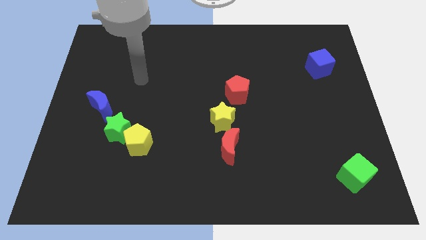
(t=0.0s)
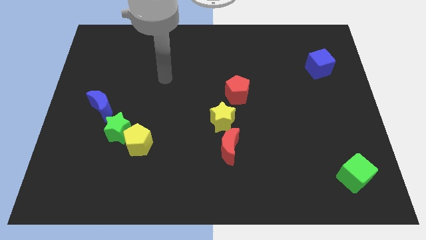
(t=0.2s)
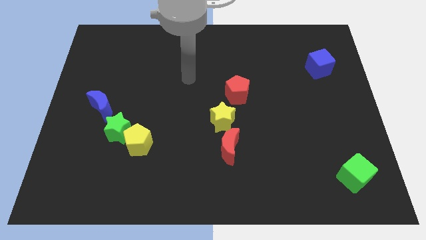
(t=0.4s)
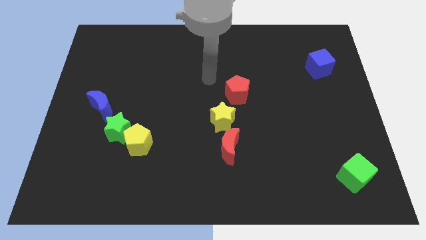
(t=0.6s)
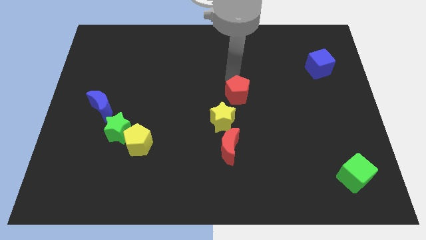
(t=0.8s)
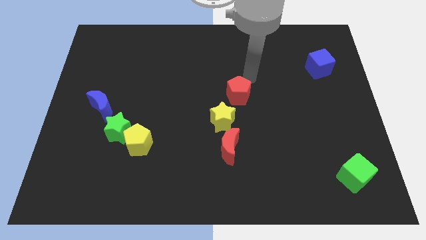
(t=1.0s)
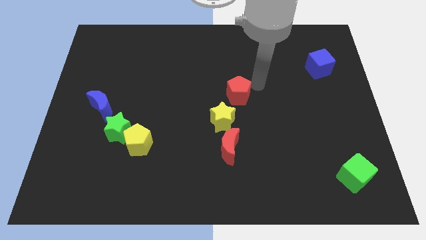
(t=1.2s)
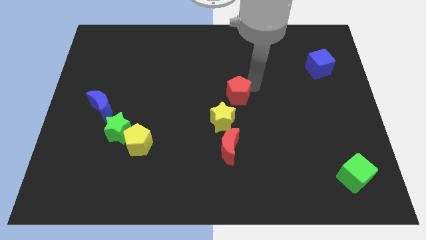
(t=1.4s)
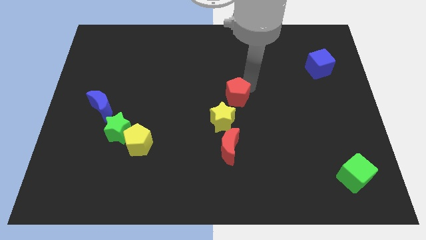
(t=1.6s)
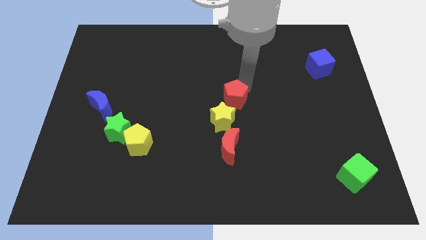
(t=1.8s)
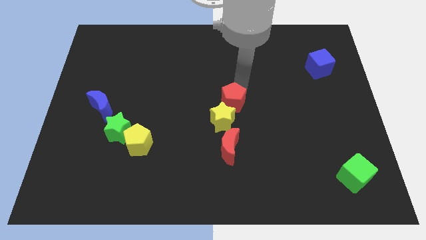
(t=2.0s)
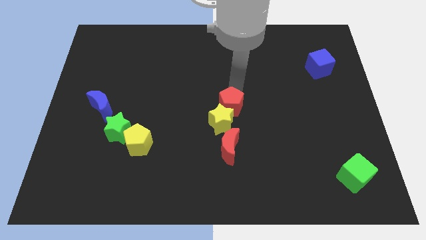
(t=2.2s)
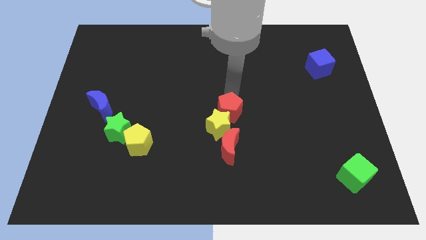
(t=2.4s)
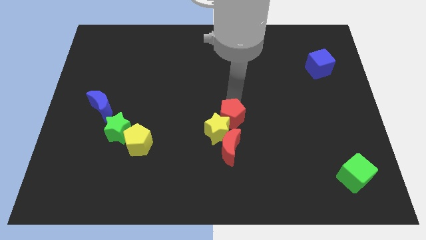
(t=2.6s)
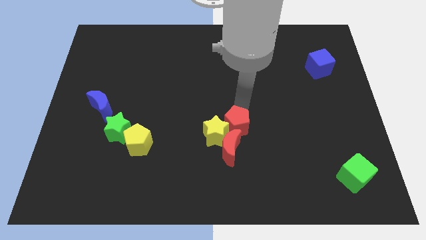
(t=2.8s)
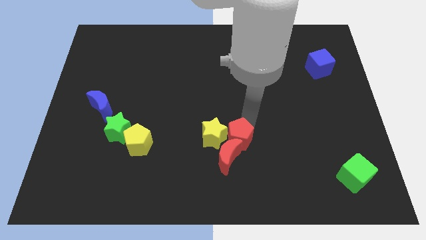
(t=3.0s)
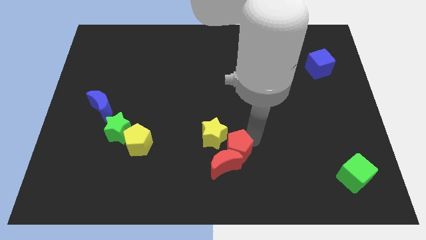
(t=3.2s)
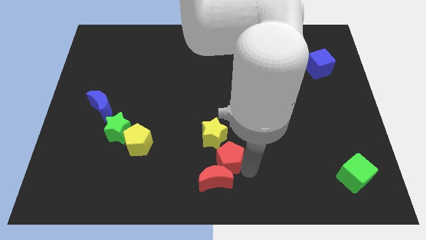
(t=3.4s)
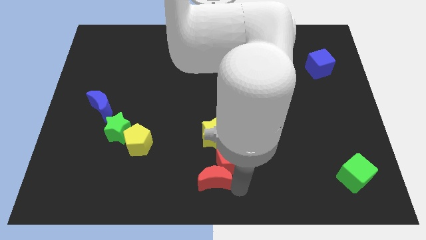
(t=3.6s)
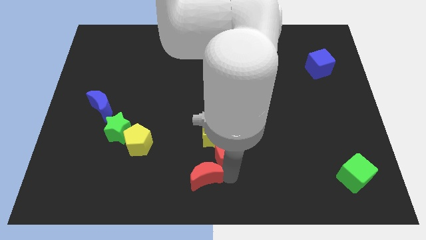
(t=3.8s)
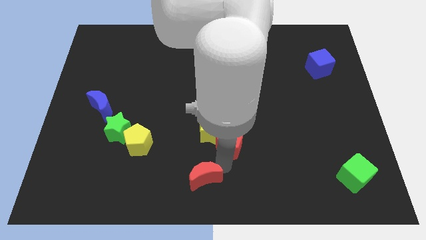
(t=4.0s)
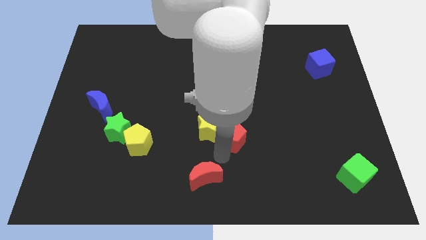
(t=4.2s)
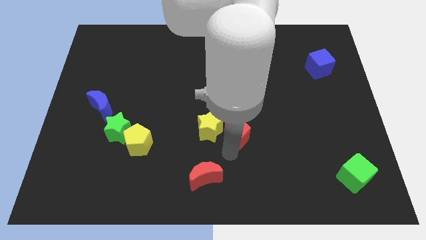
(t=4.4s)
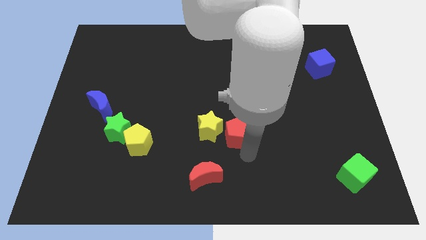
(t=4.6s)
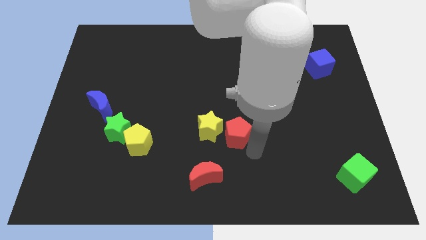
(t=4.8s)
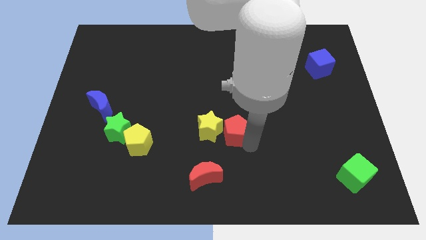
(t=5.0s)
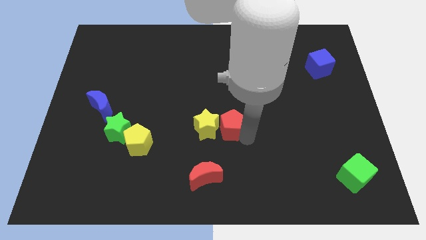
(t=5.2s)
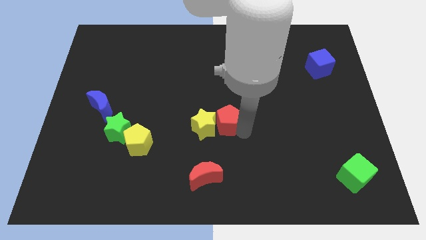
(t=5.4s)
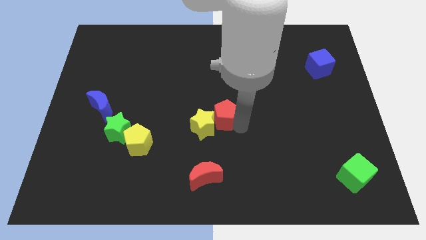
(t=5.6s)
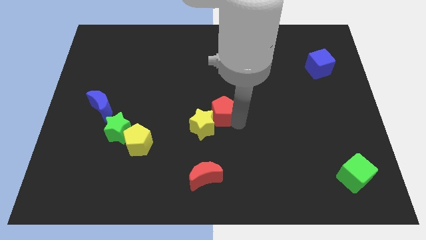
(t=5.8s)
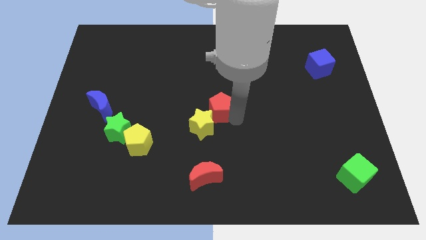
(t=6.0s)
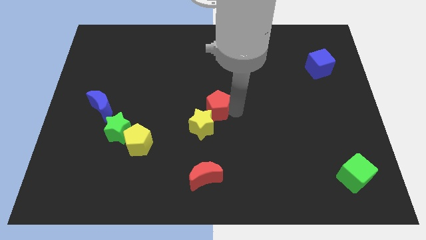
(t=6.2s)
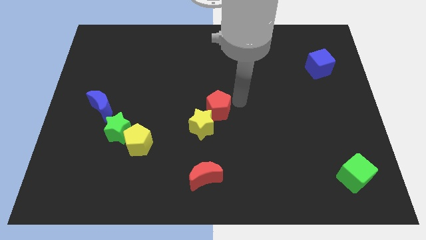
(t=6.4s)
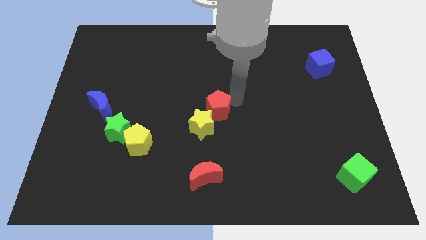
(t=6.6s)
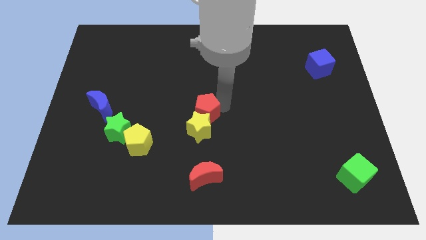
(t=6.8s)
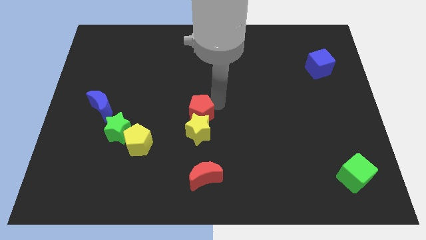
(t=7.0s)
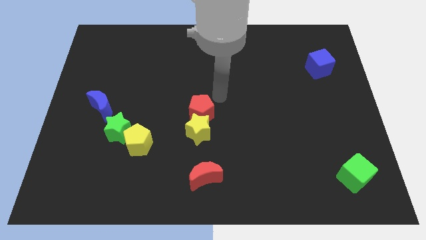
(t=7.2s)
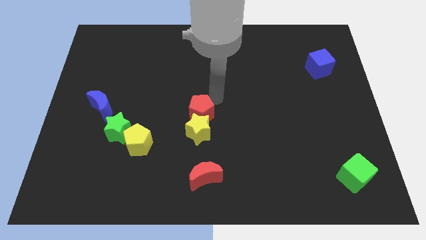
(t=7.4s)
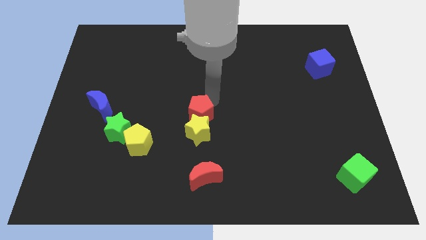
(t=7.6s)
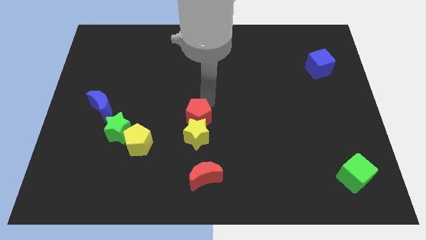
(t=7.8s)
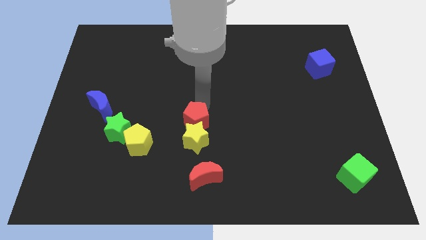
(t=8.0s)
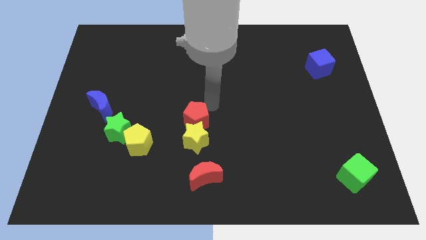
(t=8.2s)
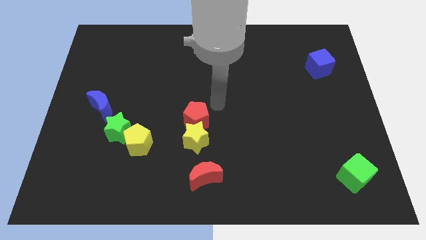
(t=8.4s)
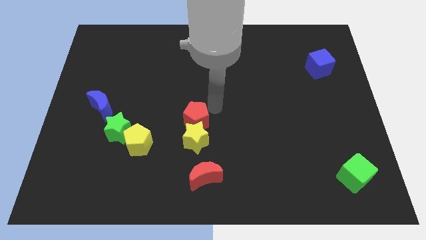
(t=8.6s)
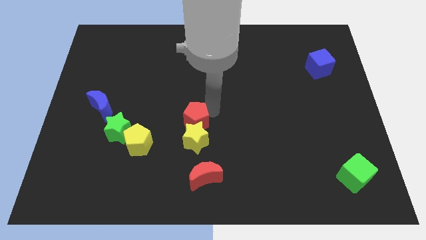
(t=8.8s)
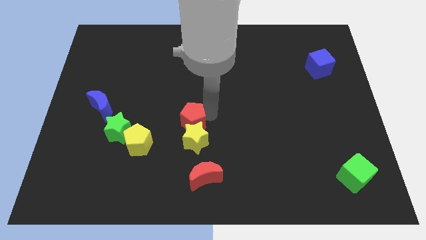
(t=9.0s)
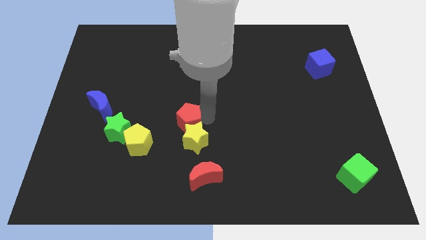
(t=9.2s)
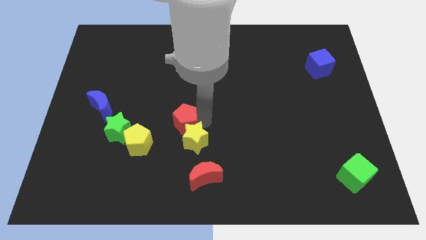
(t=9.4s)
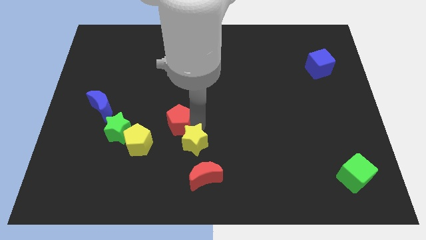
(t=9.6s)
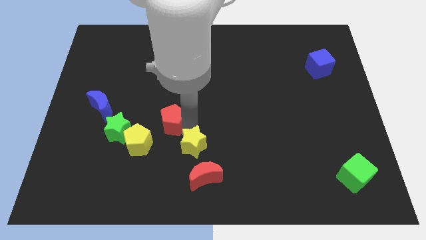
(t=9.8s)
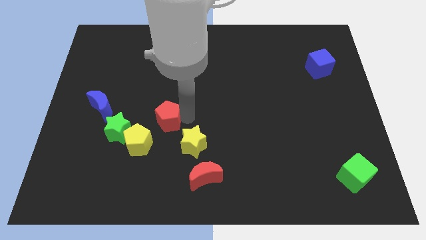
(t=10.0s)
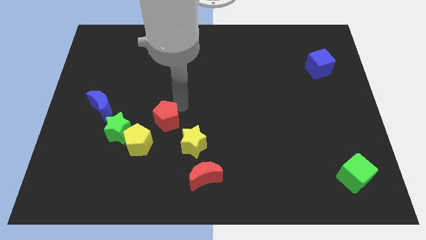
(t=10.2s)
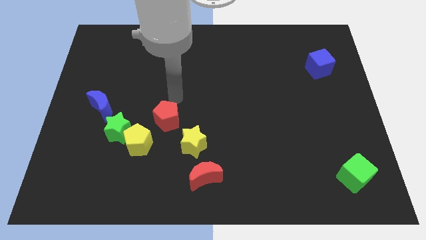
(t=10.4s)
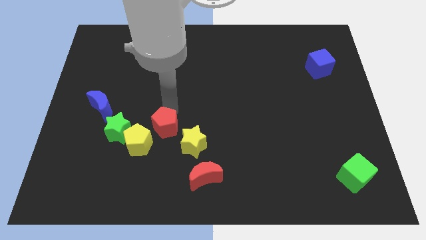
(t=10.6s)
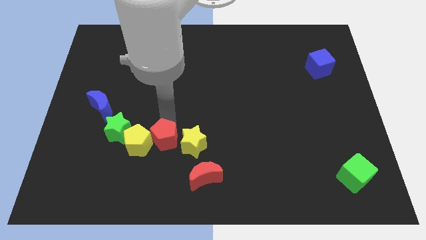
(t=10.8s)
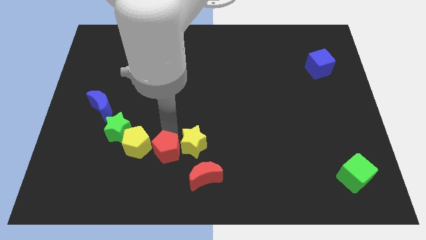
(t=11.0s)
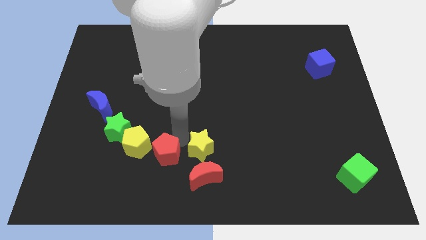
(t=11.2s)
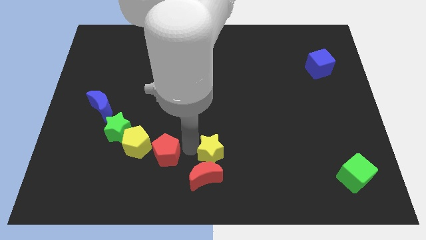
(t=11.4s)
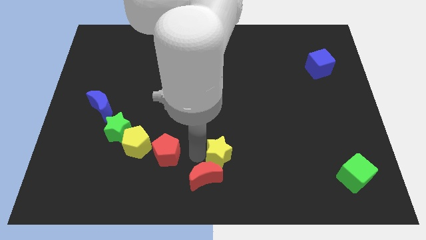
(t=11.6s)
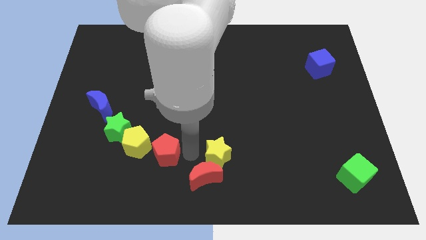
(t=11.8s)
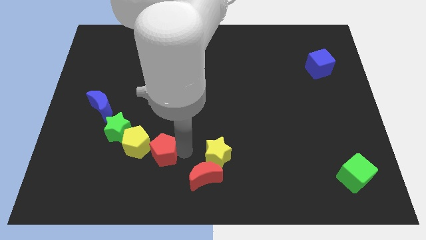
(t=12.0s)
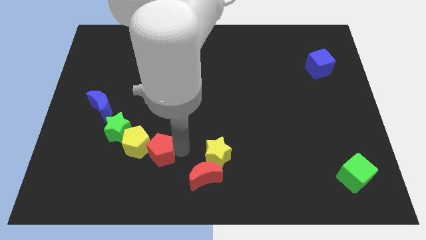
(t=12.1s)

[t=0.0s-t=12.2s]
slide the red pentagon to the bottom right side of the green star

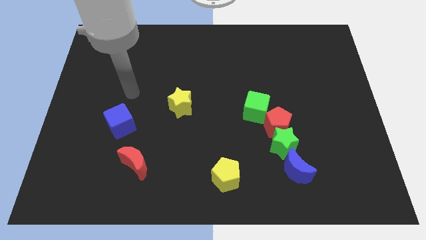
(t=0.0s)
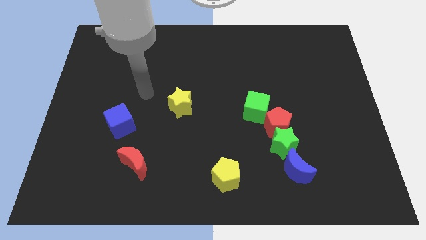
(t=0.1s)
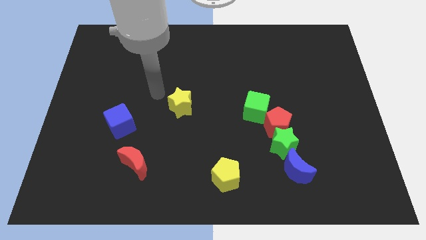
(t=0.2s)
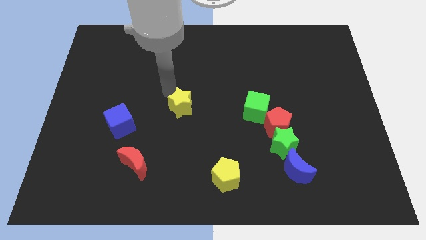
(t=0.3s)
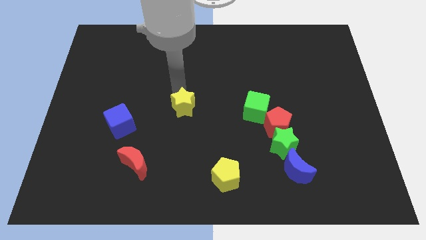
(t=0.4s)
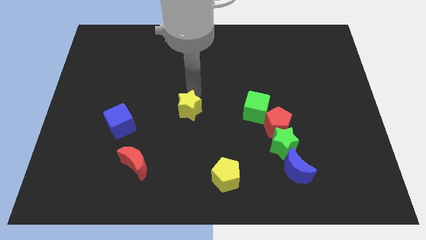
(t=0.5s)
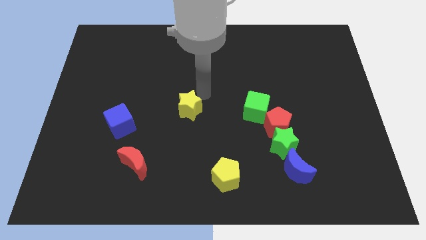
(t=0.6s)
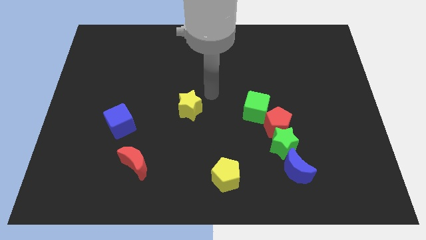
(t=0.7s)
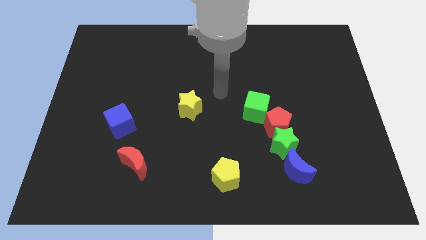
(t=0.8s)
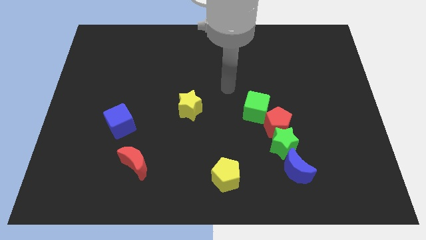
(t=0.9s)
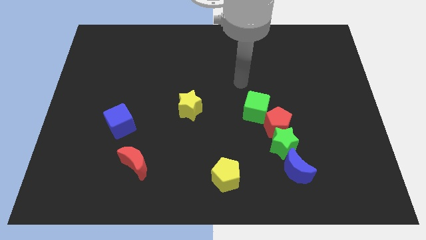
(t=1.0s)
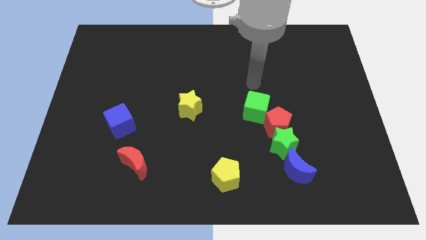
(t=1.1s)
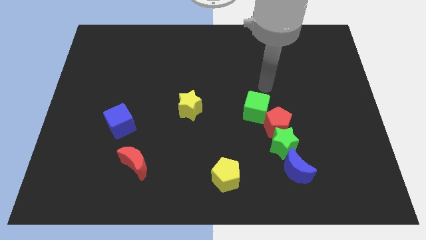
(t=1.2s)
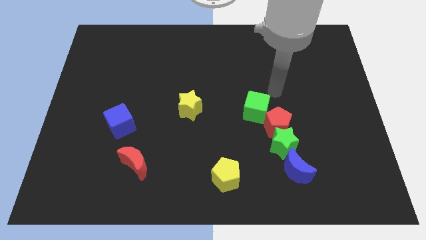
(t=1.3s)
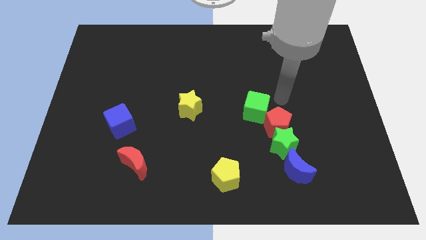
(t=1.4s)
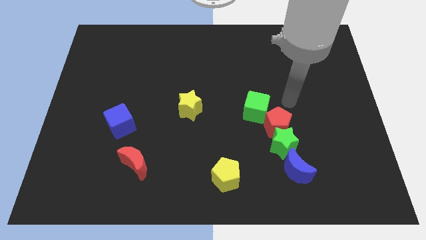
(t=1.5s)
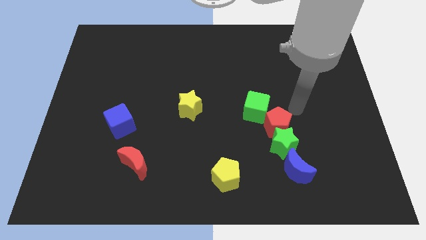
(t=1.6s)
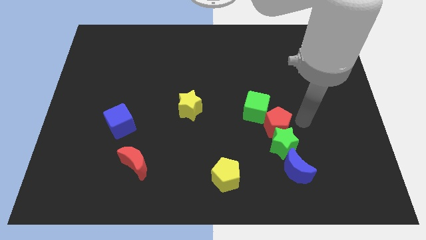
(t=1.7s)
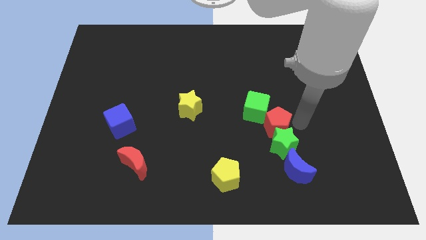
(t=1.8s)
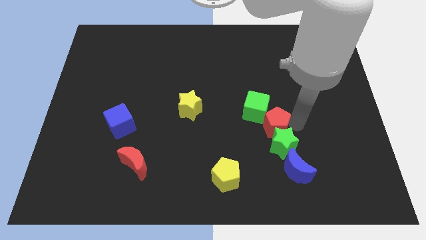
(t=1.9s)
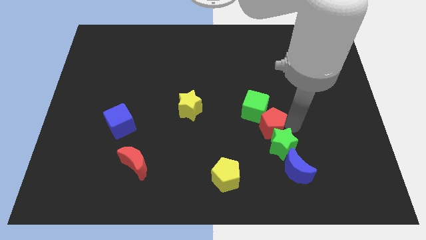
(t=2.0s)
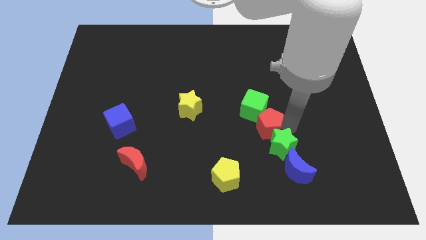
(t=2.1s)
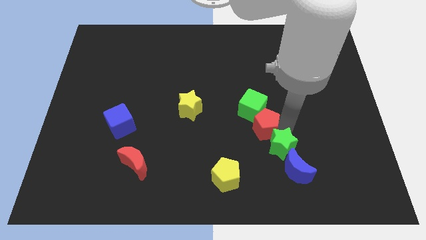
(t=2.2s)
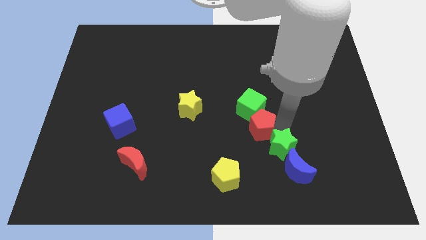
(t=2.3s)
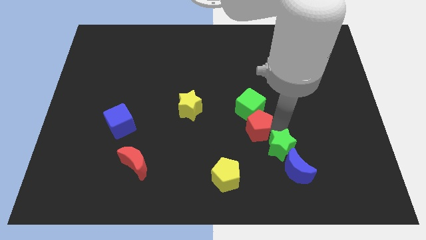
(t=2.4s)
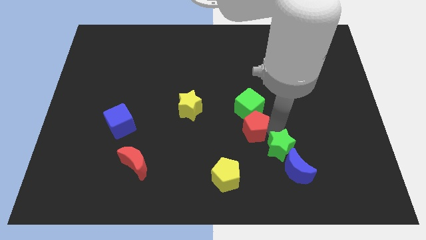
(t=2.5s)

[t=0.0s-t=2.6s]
push the red pentagon to the bottom left side of the green cube
